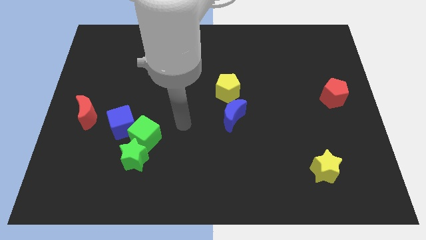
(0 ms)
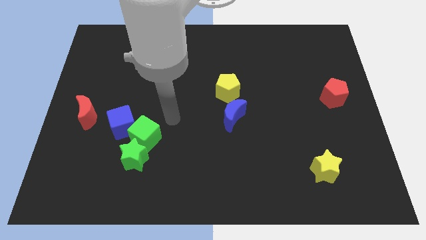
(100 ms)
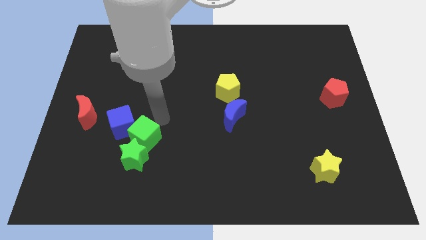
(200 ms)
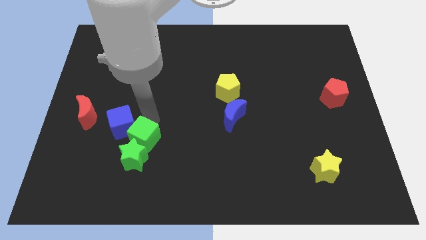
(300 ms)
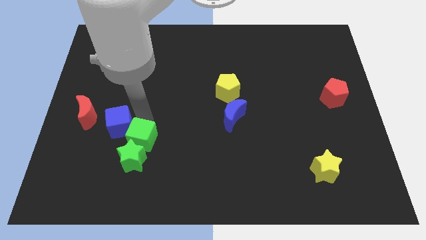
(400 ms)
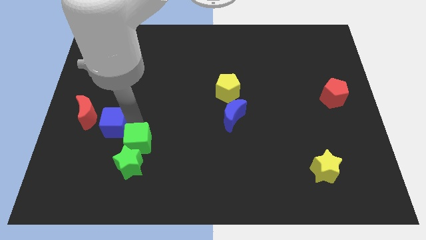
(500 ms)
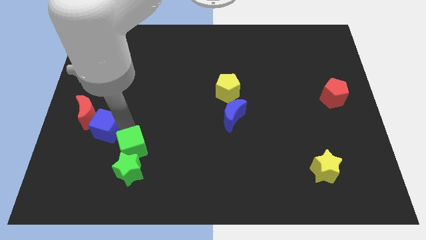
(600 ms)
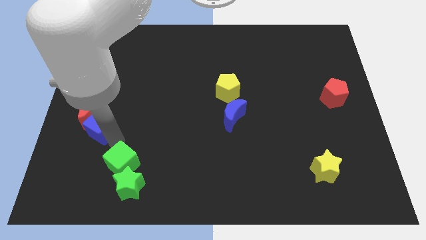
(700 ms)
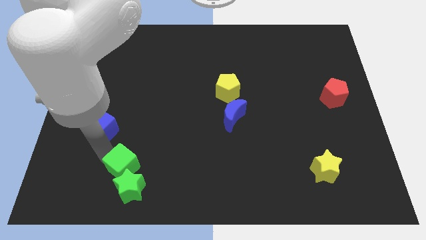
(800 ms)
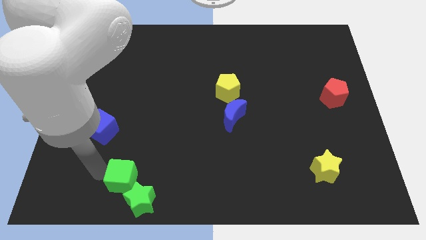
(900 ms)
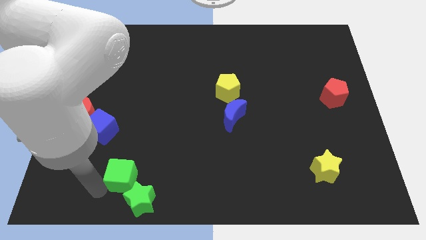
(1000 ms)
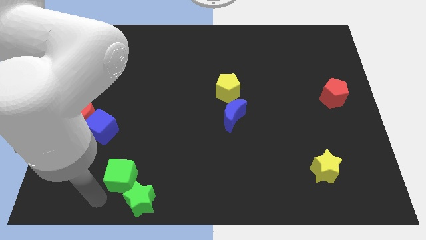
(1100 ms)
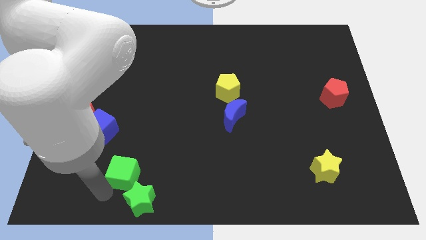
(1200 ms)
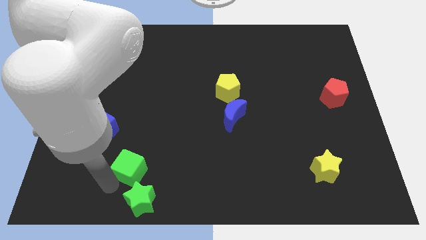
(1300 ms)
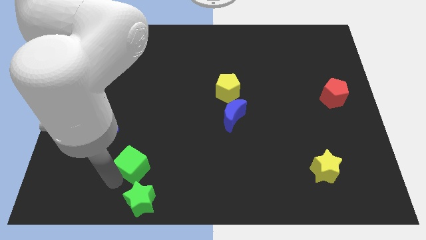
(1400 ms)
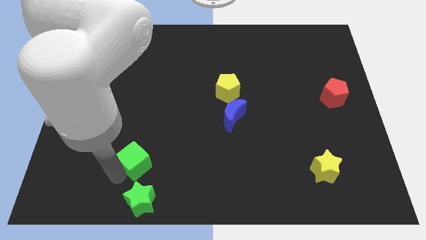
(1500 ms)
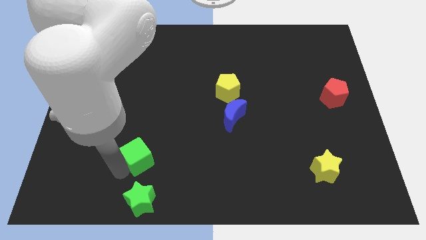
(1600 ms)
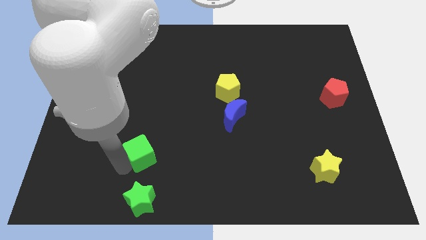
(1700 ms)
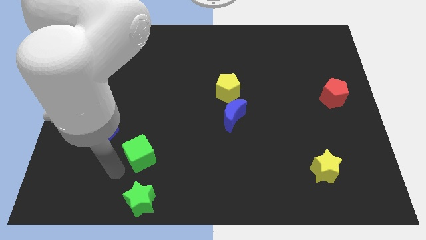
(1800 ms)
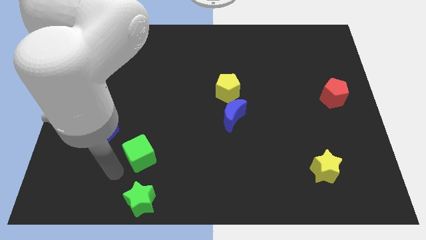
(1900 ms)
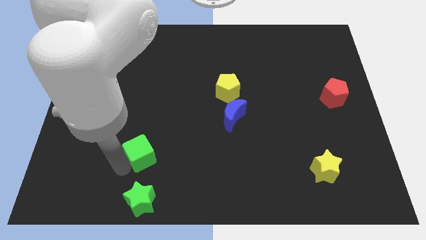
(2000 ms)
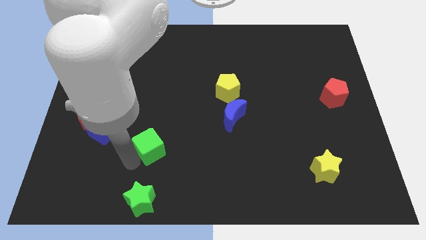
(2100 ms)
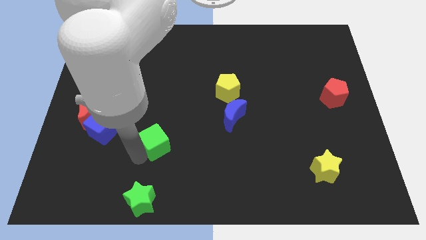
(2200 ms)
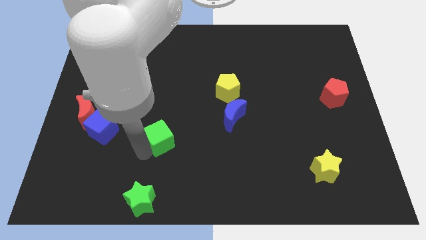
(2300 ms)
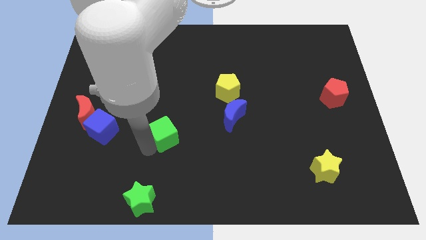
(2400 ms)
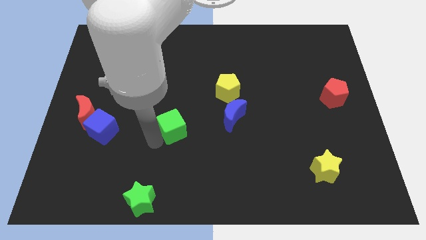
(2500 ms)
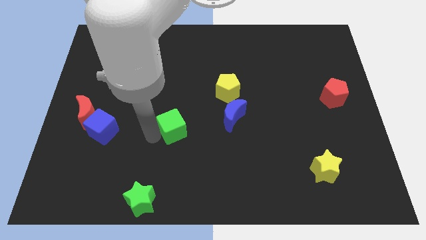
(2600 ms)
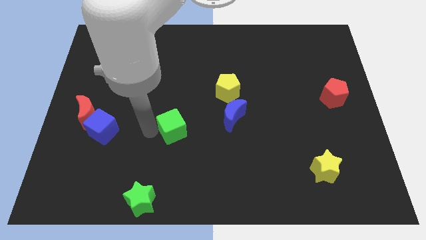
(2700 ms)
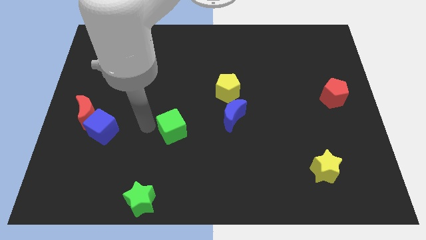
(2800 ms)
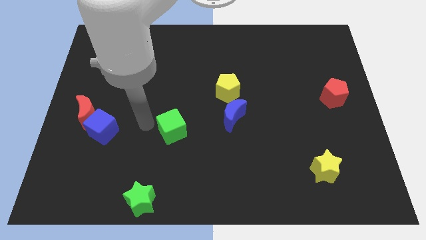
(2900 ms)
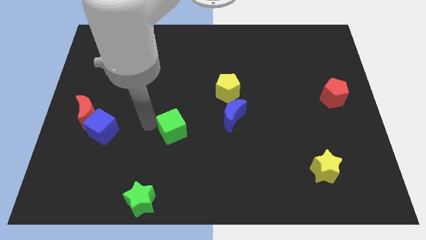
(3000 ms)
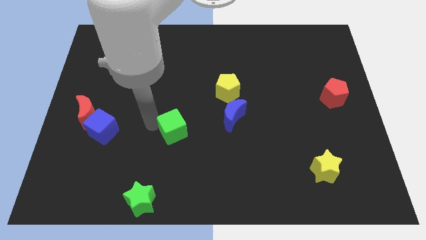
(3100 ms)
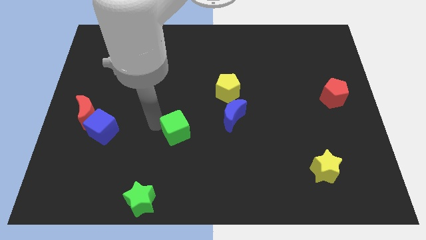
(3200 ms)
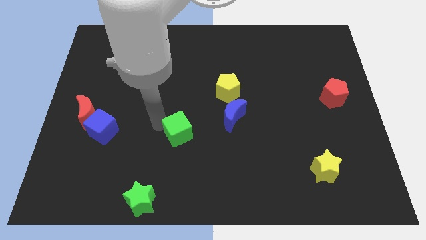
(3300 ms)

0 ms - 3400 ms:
push the green cube somewhat to the right

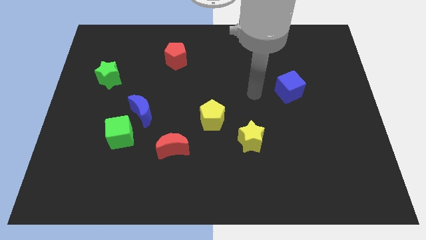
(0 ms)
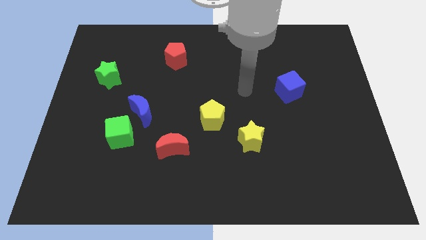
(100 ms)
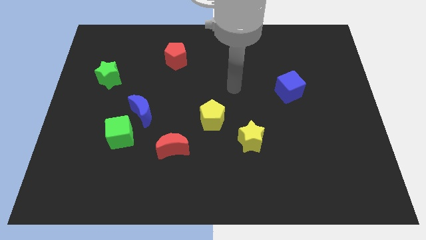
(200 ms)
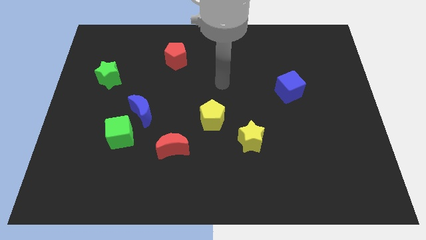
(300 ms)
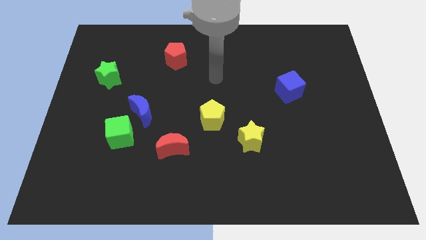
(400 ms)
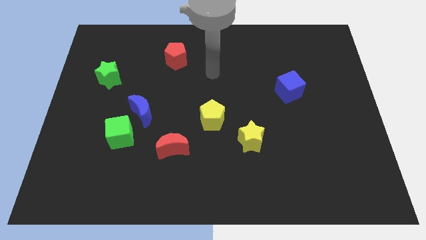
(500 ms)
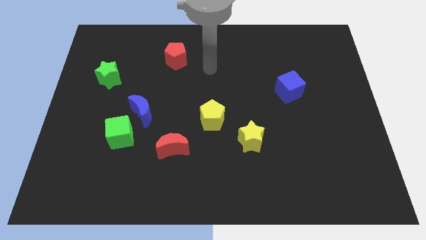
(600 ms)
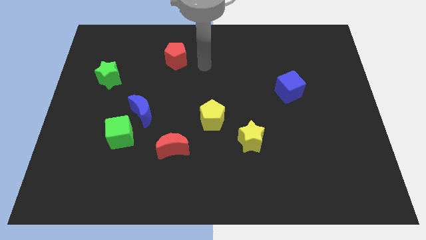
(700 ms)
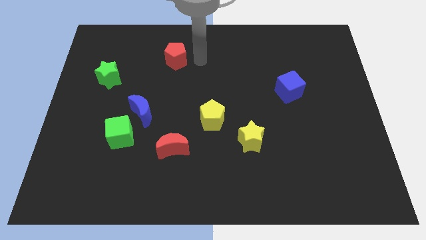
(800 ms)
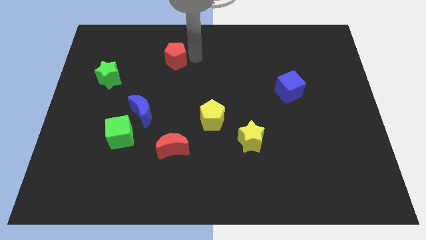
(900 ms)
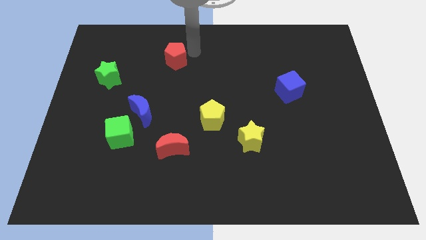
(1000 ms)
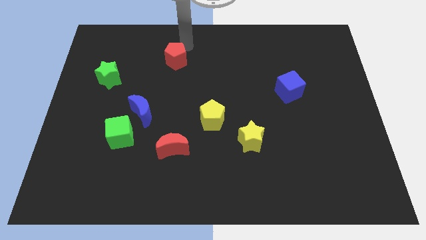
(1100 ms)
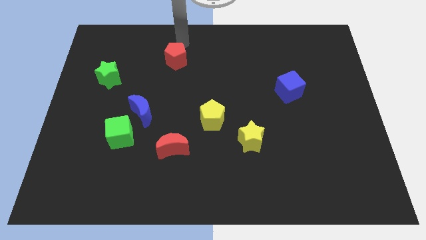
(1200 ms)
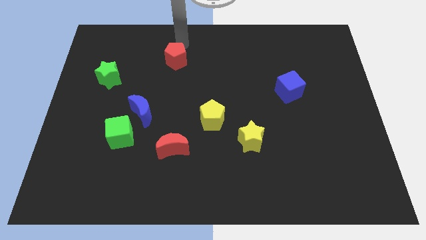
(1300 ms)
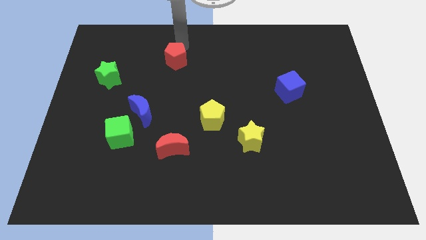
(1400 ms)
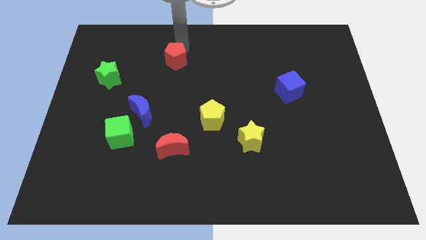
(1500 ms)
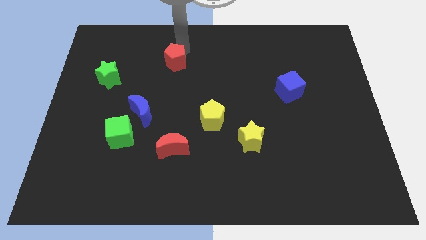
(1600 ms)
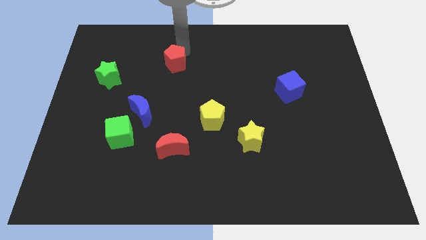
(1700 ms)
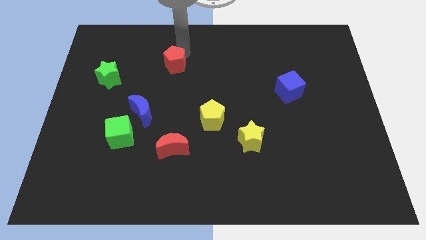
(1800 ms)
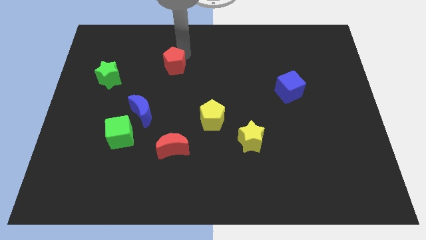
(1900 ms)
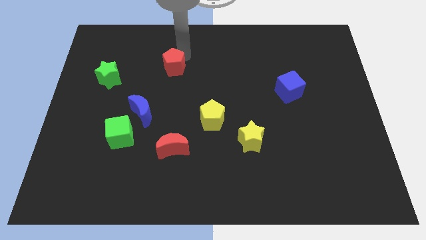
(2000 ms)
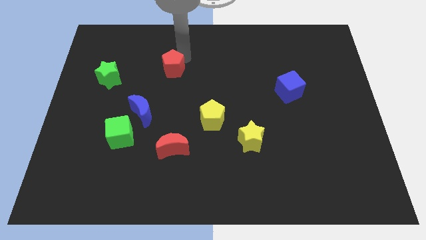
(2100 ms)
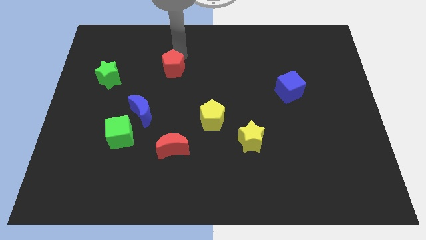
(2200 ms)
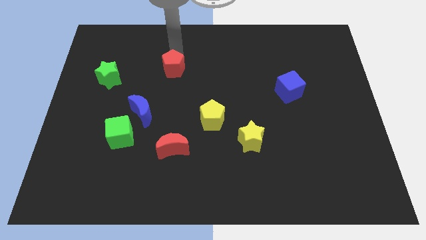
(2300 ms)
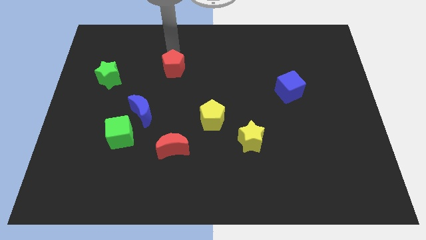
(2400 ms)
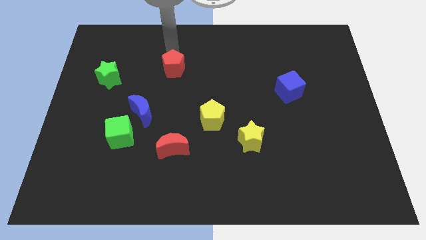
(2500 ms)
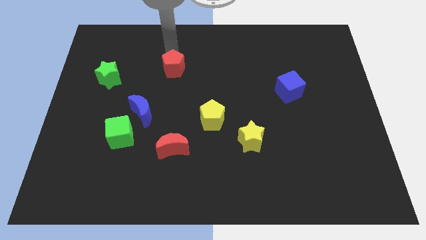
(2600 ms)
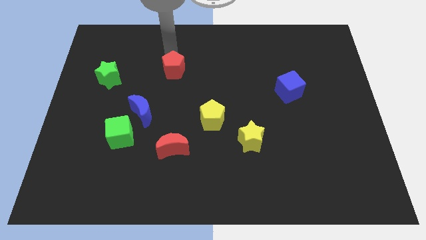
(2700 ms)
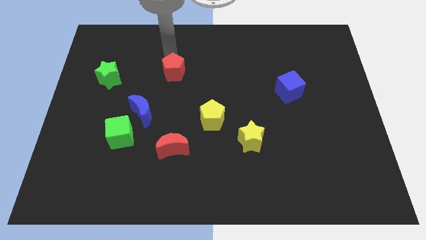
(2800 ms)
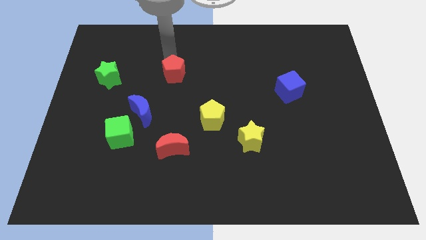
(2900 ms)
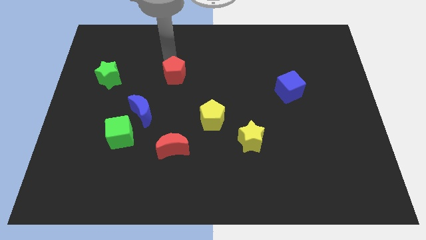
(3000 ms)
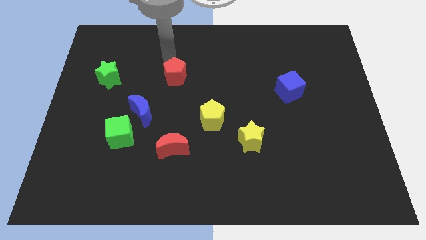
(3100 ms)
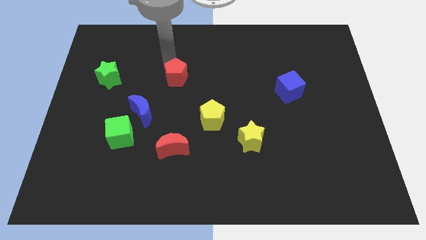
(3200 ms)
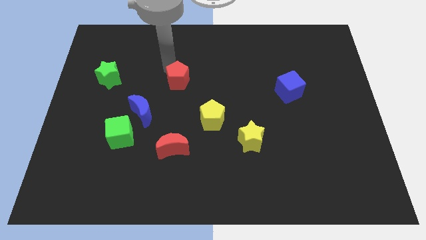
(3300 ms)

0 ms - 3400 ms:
slightly push the red pentagon down

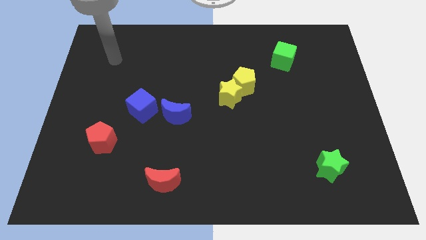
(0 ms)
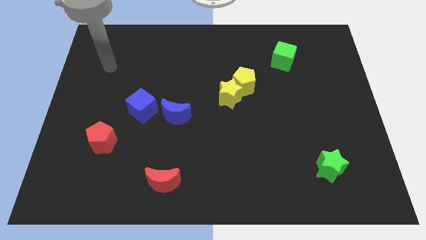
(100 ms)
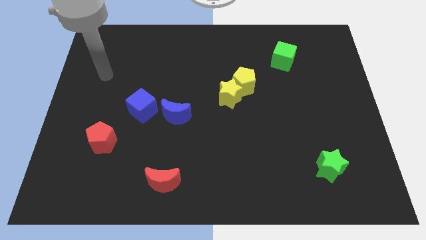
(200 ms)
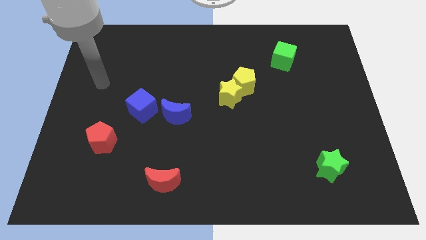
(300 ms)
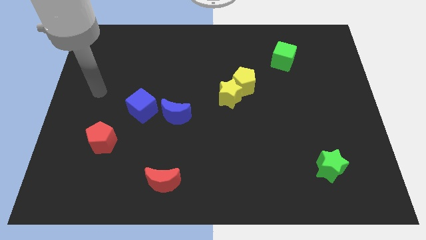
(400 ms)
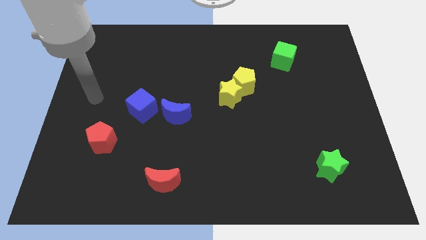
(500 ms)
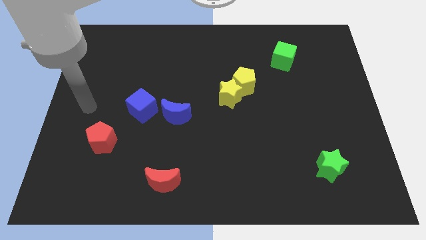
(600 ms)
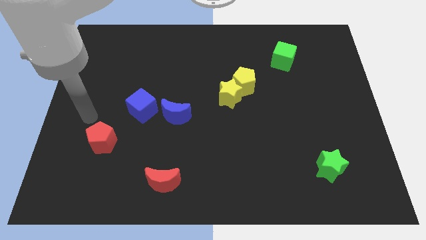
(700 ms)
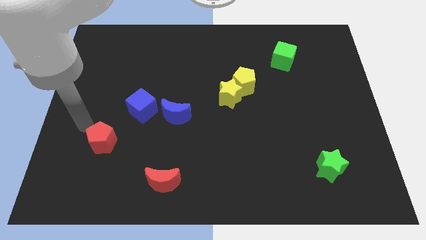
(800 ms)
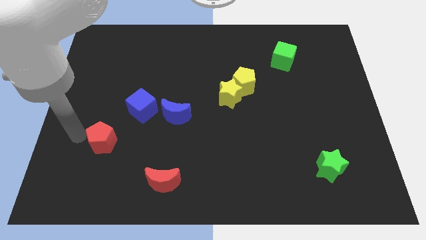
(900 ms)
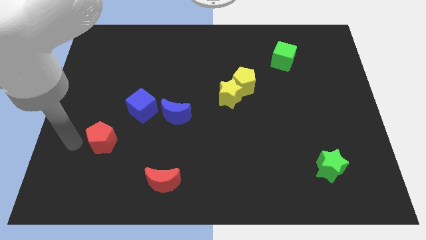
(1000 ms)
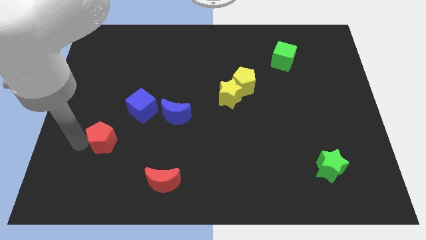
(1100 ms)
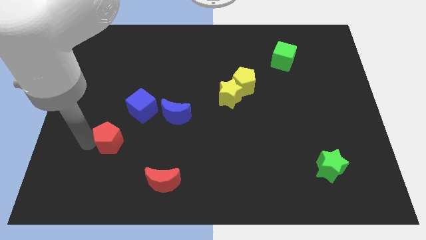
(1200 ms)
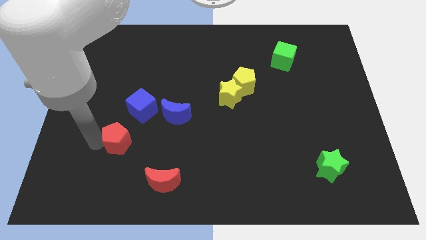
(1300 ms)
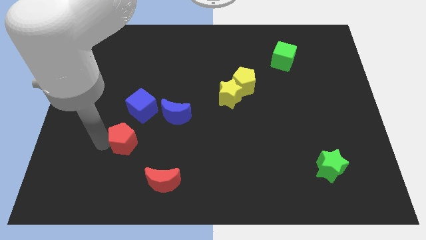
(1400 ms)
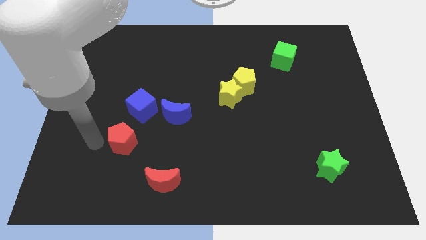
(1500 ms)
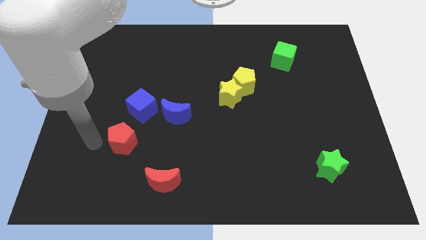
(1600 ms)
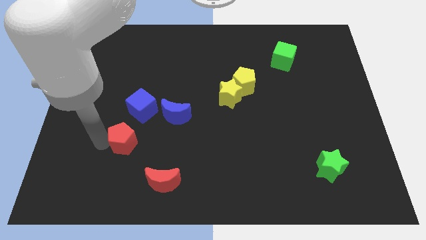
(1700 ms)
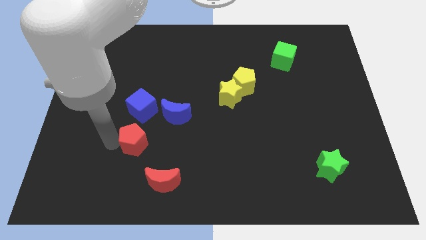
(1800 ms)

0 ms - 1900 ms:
slightly push the red pentagon right
